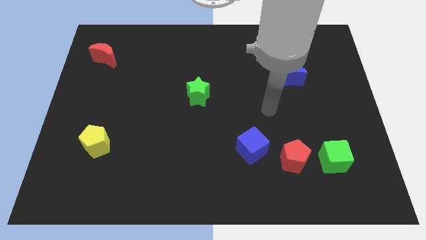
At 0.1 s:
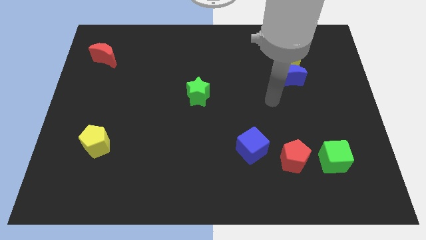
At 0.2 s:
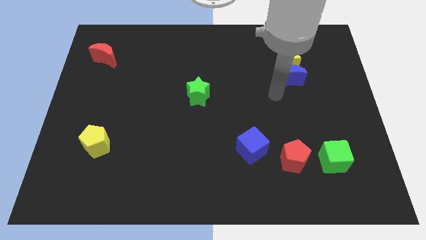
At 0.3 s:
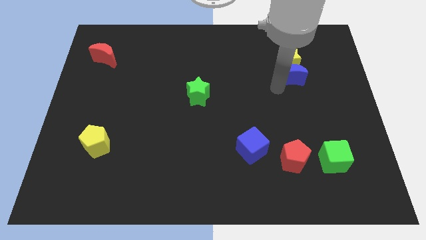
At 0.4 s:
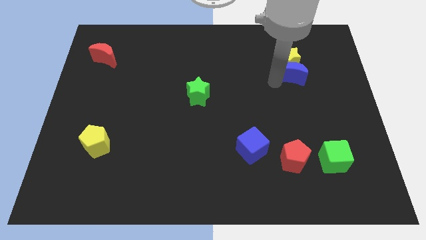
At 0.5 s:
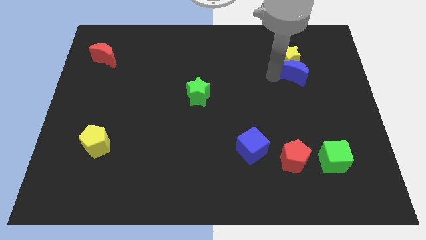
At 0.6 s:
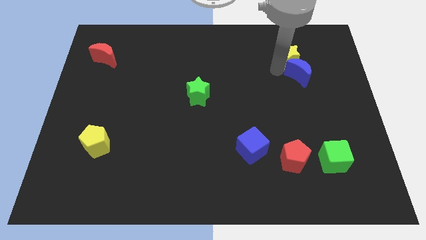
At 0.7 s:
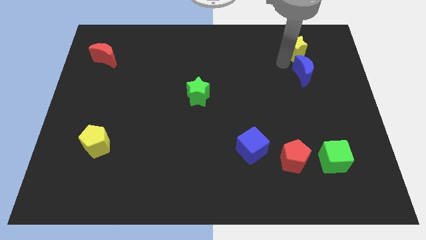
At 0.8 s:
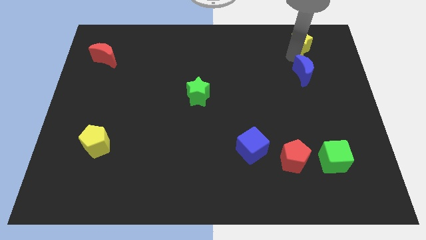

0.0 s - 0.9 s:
pull the blue moon apart from the yellow star

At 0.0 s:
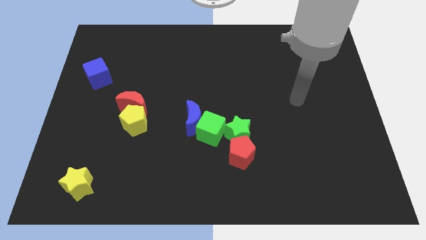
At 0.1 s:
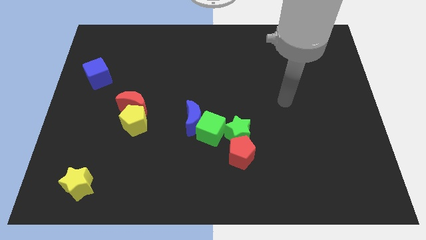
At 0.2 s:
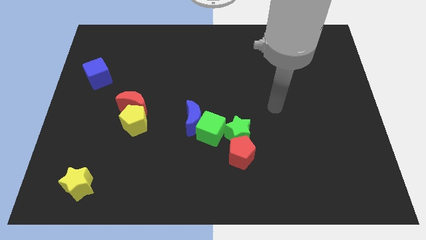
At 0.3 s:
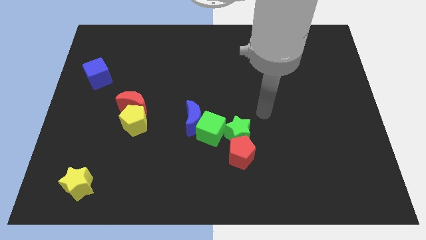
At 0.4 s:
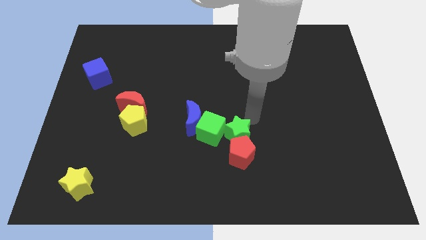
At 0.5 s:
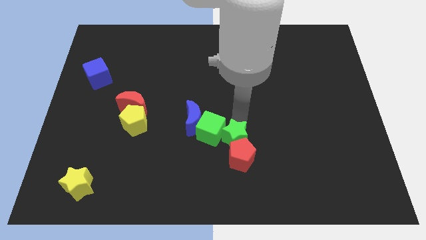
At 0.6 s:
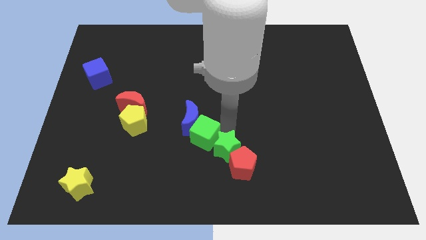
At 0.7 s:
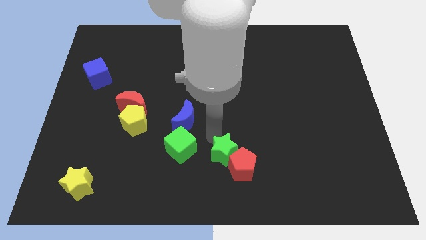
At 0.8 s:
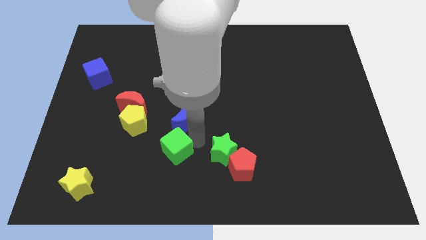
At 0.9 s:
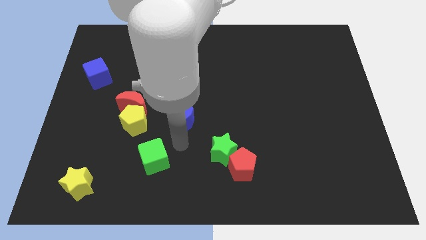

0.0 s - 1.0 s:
separate the blue moon from the green cube

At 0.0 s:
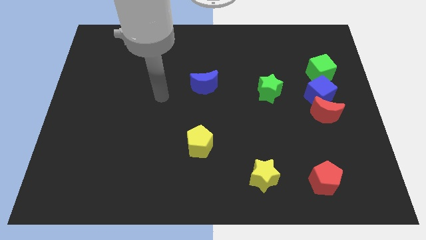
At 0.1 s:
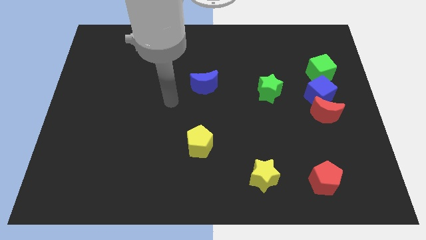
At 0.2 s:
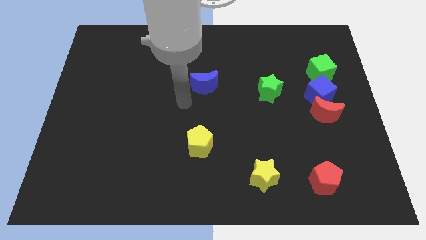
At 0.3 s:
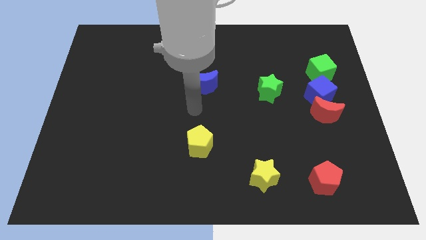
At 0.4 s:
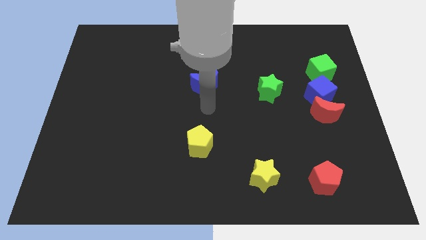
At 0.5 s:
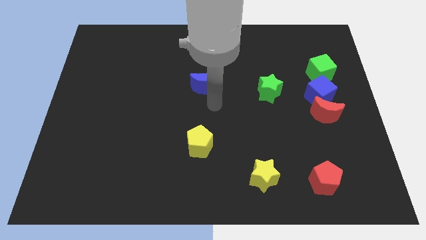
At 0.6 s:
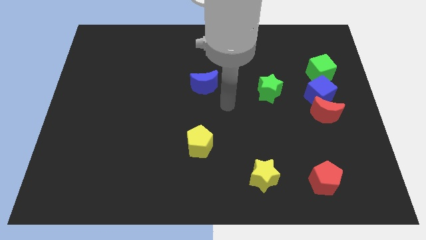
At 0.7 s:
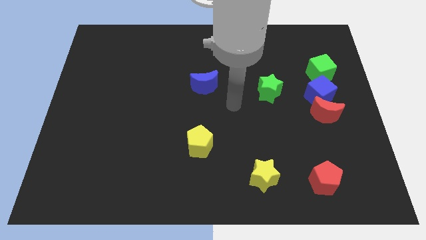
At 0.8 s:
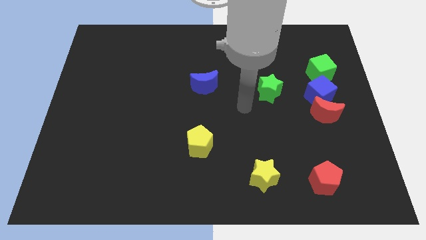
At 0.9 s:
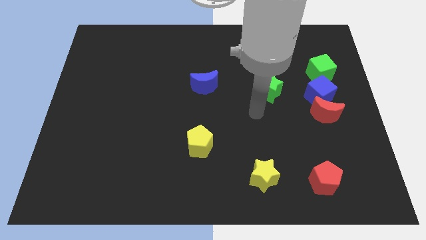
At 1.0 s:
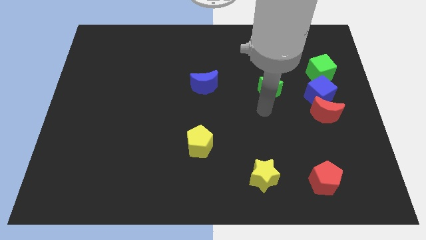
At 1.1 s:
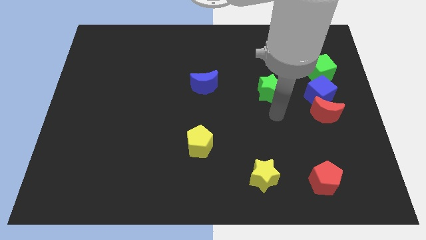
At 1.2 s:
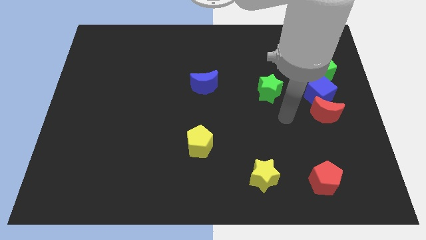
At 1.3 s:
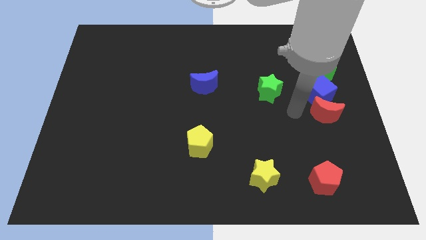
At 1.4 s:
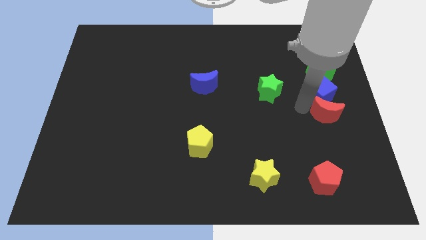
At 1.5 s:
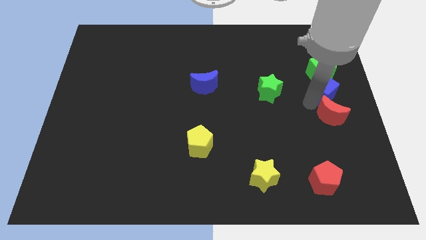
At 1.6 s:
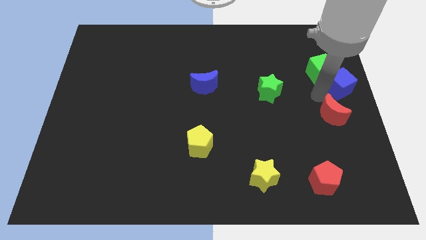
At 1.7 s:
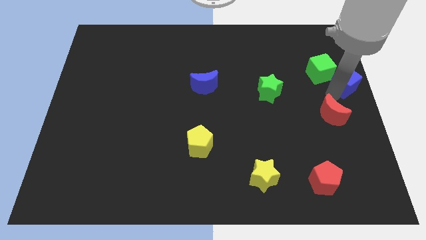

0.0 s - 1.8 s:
pull the red moon apart from the blue cube

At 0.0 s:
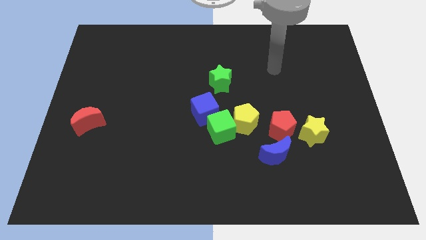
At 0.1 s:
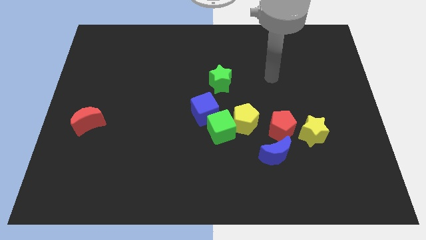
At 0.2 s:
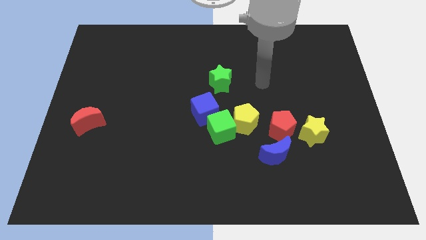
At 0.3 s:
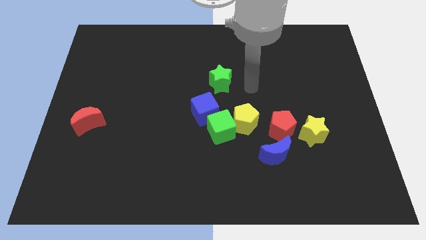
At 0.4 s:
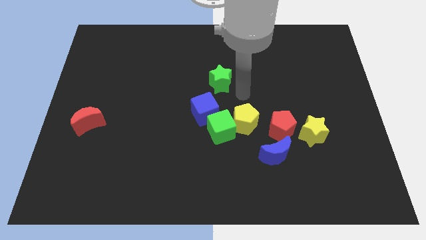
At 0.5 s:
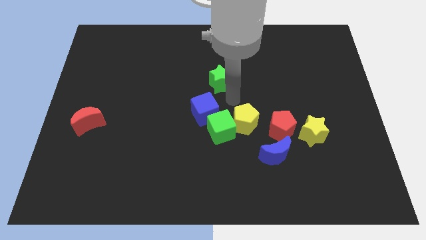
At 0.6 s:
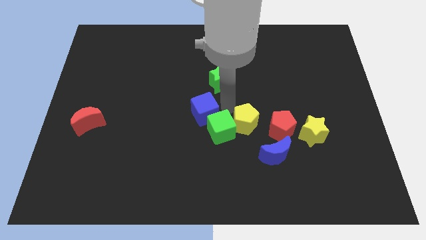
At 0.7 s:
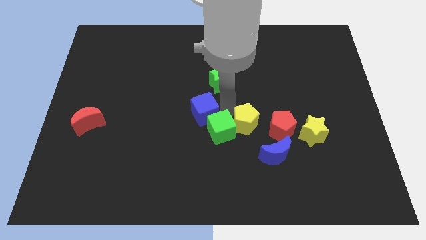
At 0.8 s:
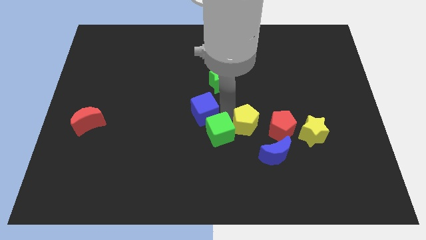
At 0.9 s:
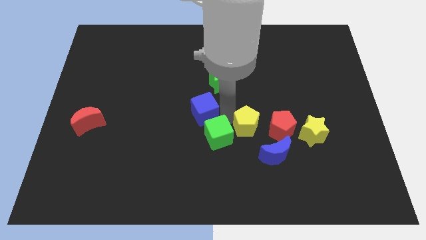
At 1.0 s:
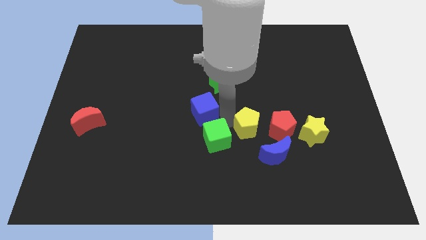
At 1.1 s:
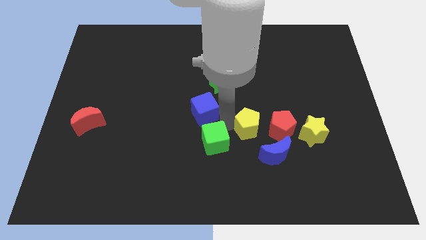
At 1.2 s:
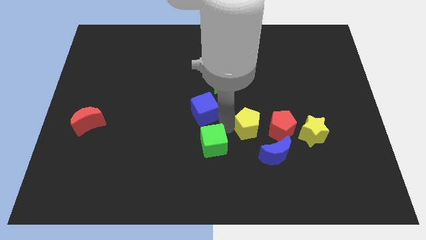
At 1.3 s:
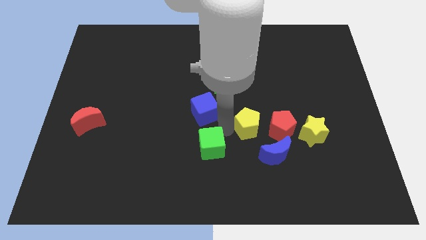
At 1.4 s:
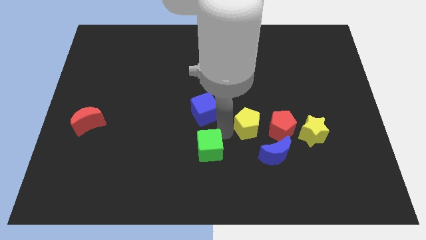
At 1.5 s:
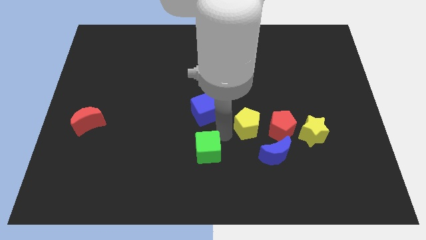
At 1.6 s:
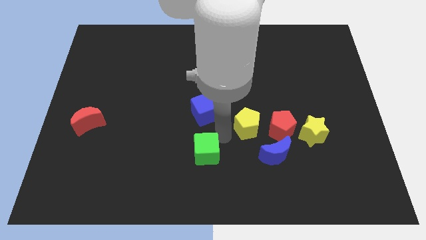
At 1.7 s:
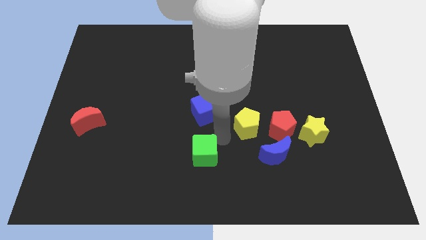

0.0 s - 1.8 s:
separate the green cube from the yellow pentagon and blue cube

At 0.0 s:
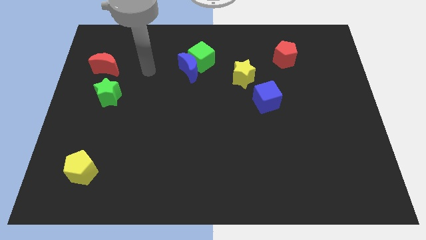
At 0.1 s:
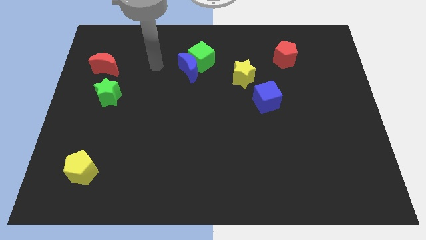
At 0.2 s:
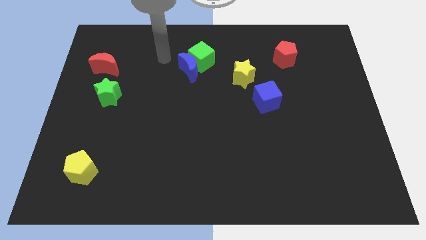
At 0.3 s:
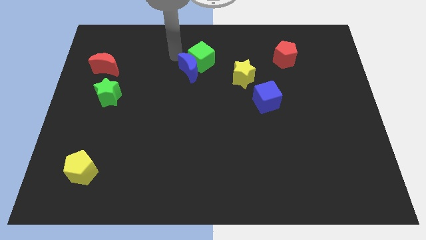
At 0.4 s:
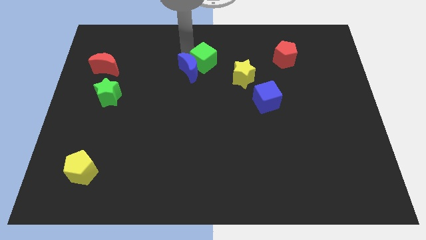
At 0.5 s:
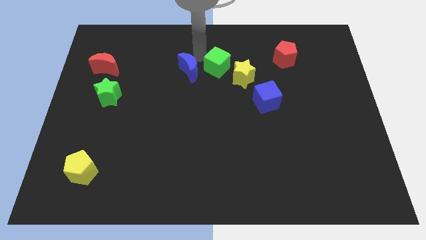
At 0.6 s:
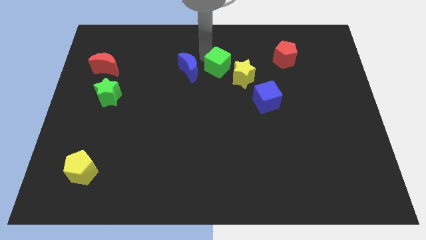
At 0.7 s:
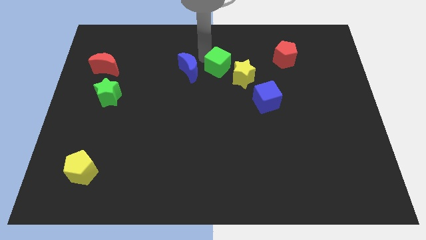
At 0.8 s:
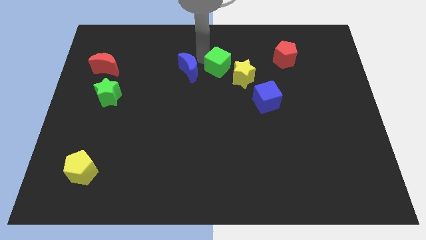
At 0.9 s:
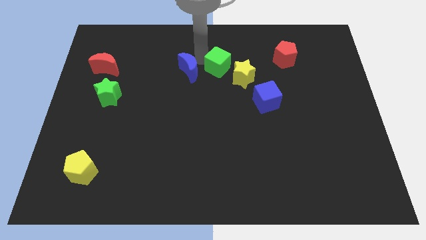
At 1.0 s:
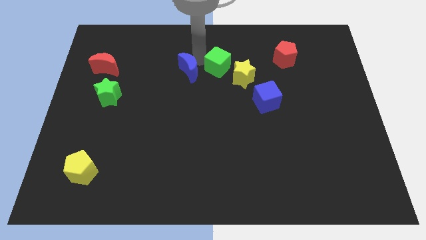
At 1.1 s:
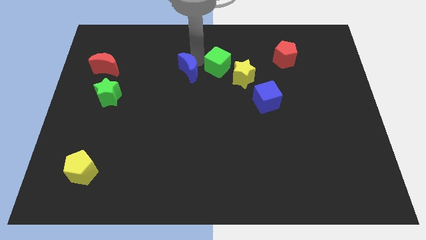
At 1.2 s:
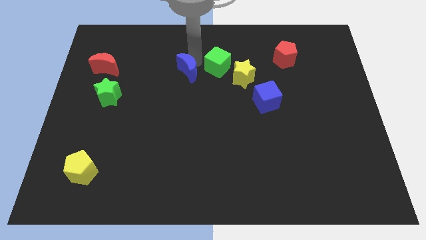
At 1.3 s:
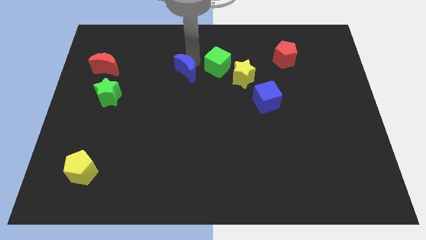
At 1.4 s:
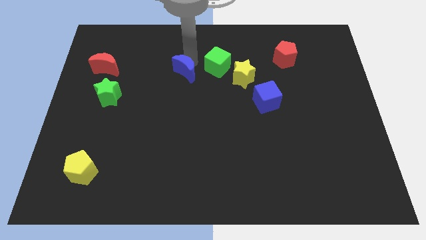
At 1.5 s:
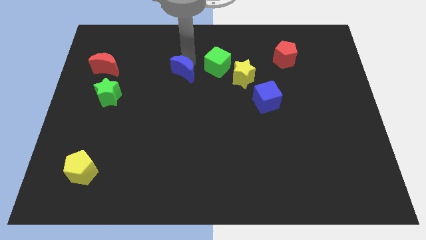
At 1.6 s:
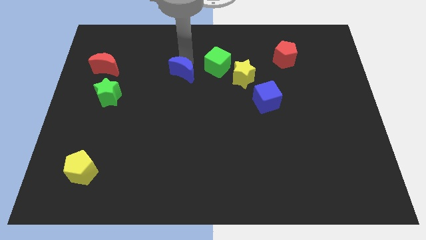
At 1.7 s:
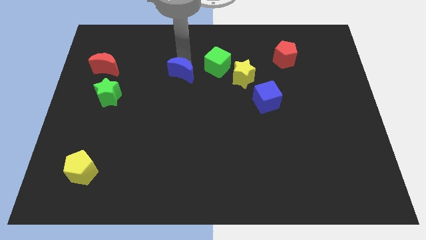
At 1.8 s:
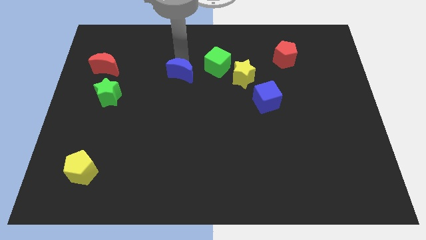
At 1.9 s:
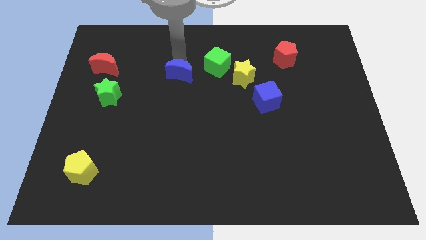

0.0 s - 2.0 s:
move the blue moon away from the green cube

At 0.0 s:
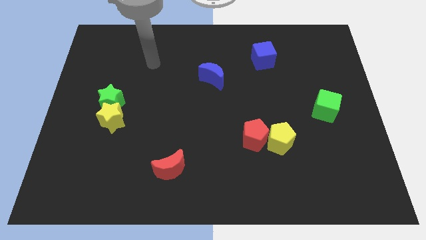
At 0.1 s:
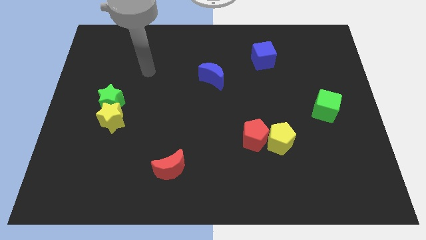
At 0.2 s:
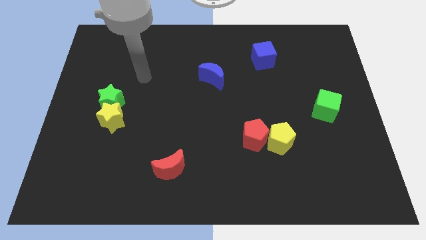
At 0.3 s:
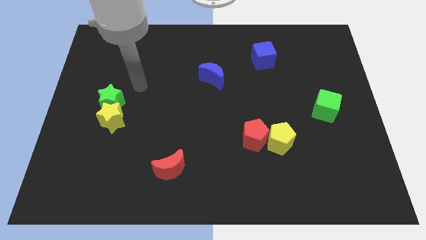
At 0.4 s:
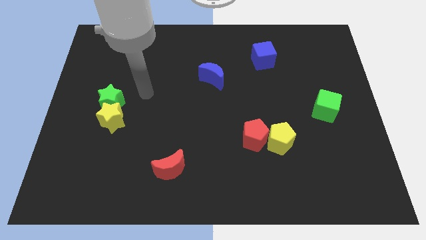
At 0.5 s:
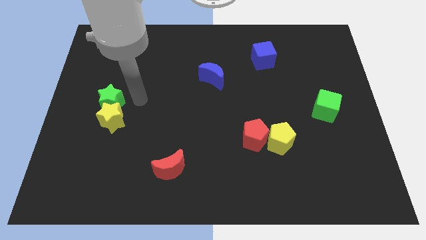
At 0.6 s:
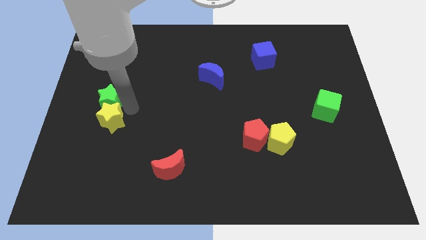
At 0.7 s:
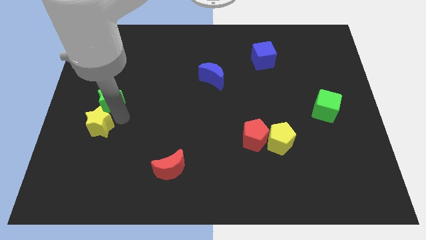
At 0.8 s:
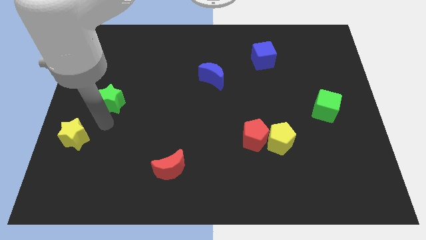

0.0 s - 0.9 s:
pull the green star apart from the yellow star

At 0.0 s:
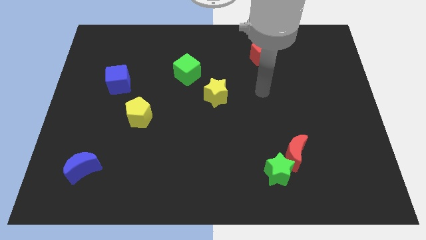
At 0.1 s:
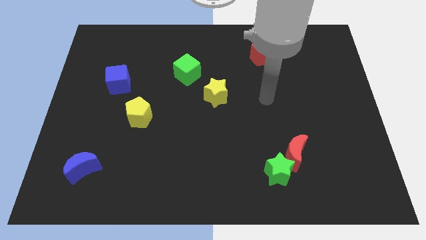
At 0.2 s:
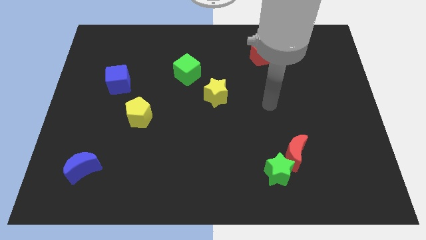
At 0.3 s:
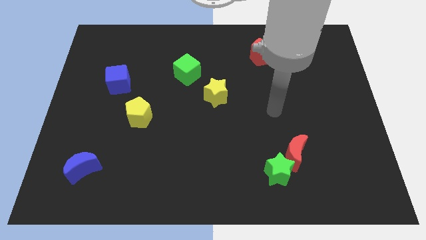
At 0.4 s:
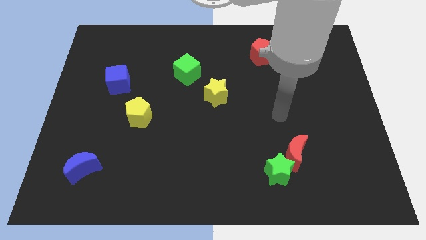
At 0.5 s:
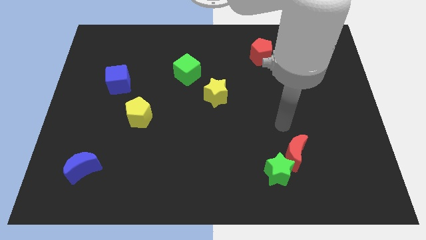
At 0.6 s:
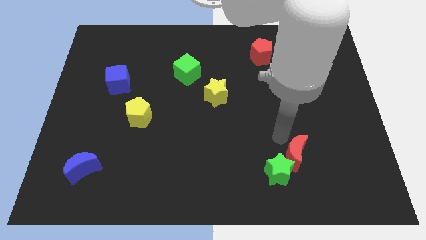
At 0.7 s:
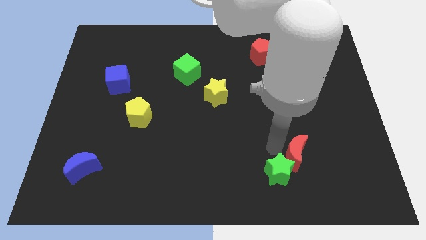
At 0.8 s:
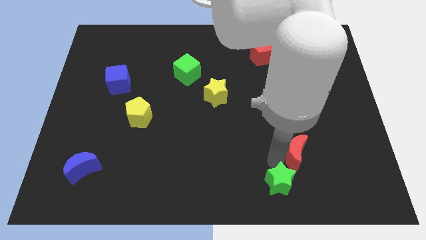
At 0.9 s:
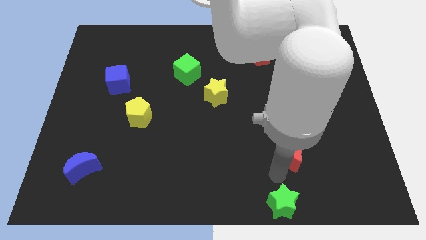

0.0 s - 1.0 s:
move the red moon away from the green star
